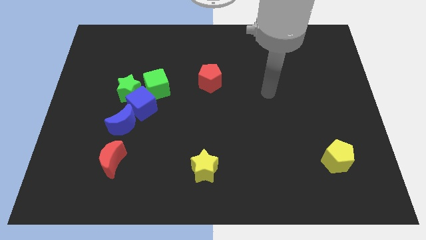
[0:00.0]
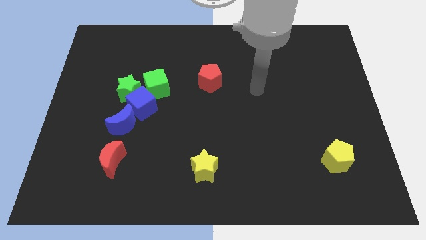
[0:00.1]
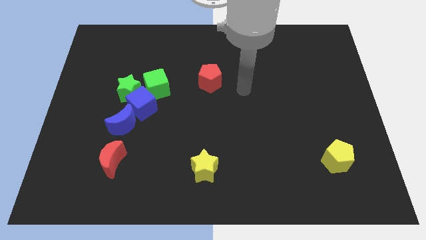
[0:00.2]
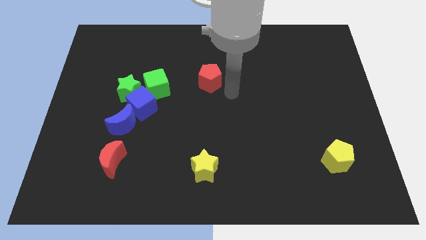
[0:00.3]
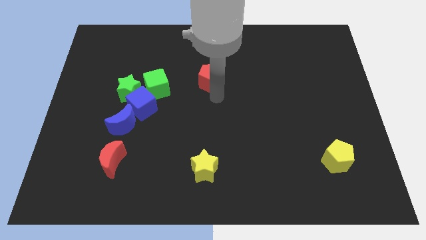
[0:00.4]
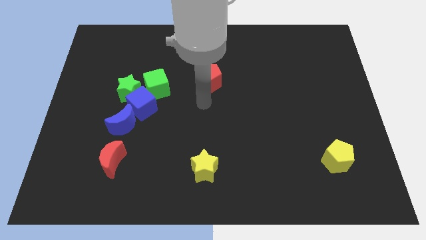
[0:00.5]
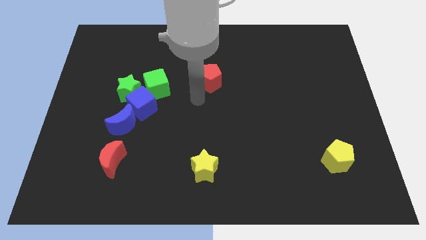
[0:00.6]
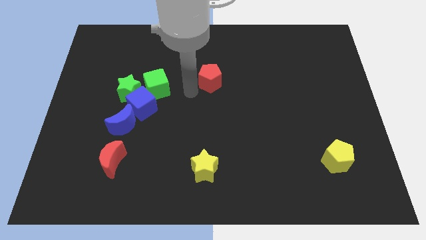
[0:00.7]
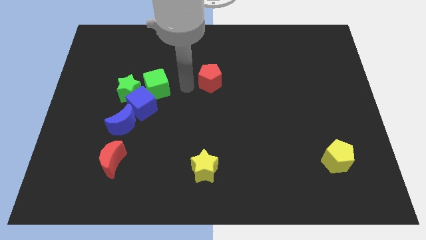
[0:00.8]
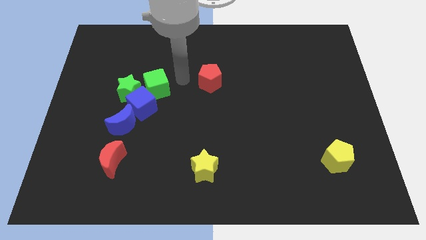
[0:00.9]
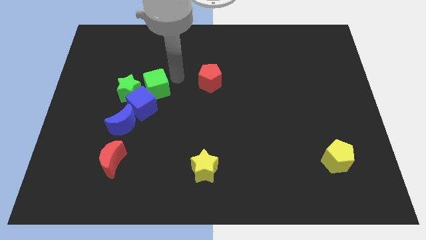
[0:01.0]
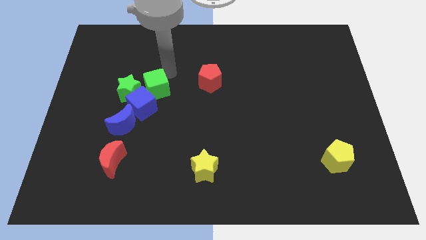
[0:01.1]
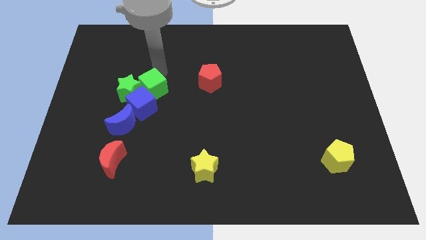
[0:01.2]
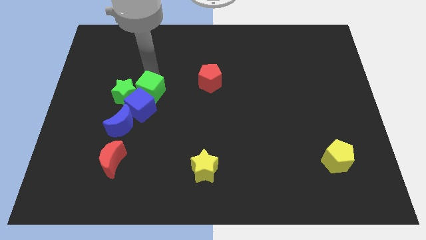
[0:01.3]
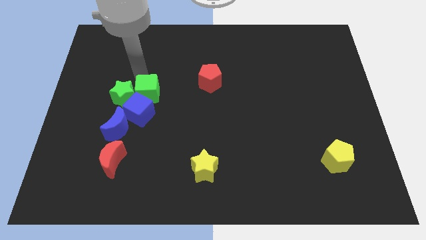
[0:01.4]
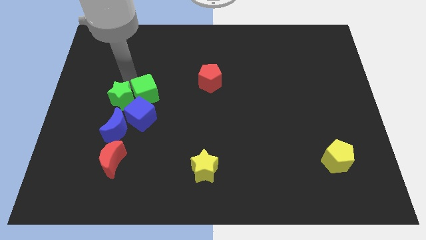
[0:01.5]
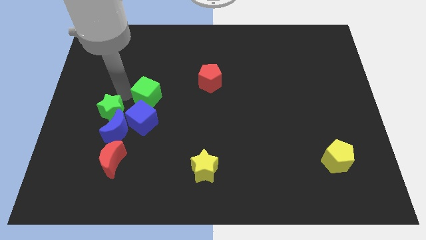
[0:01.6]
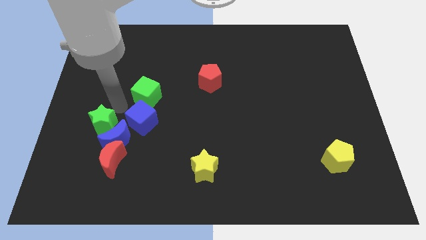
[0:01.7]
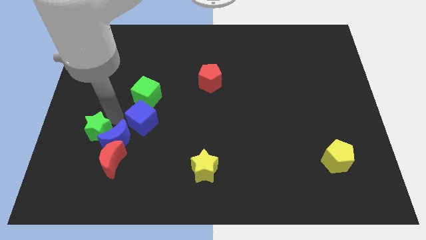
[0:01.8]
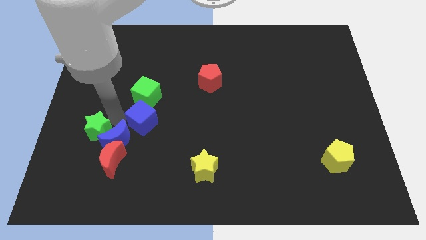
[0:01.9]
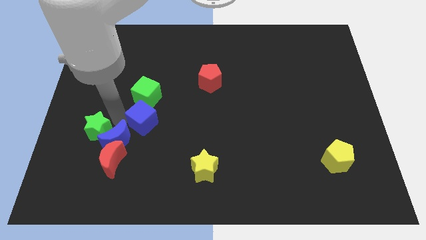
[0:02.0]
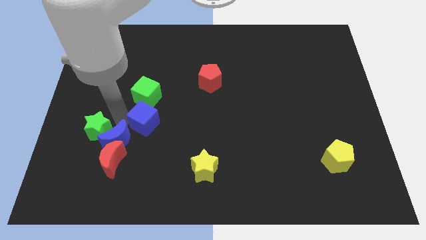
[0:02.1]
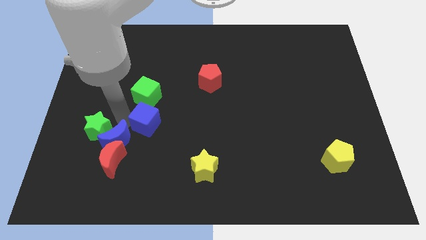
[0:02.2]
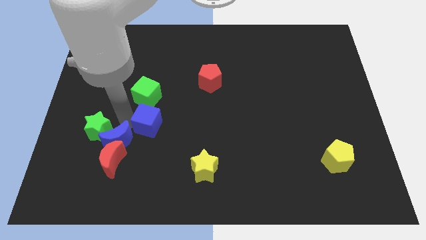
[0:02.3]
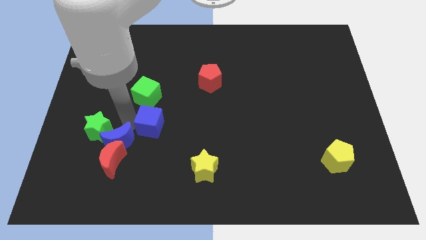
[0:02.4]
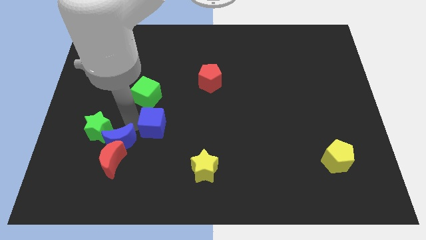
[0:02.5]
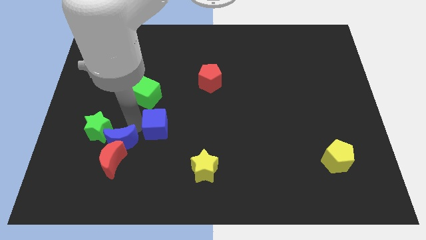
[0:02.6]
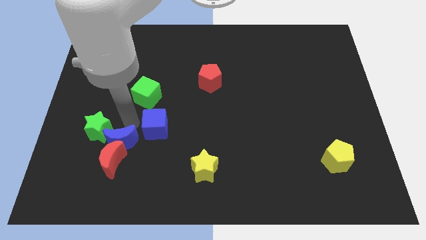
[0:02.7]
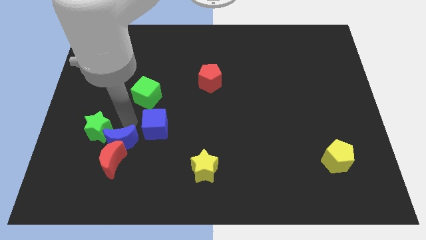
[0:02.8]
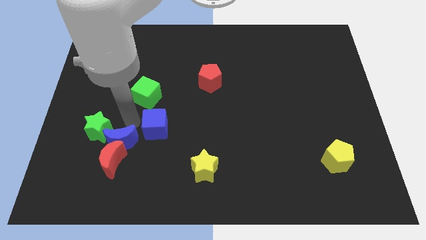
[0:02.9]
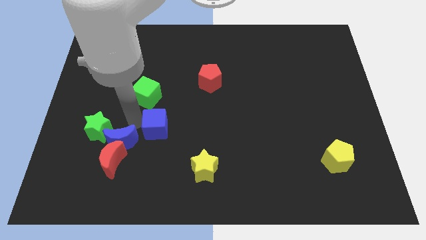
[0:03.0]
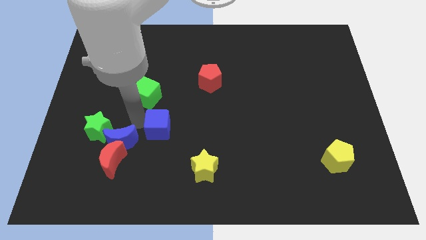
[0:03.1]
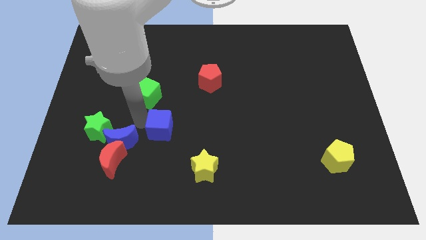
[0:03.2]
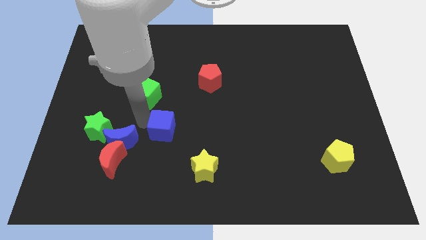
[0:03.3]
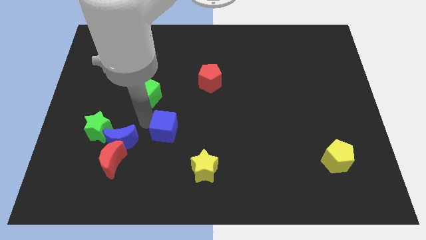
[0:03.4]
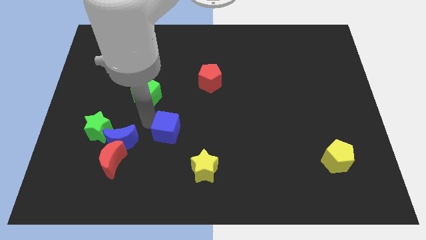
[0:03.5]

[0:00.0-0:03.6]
separate the blue cube from the group of blocks

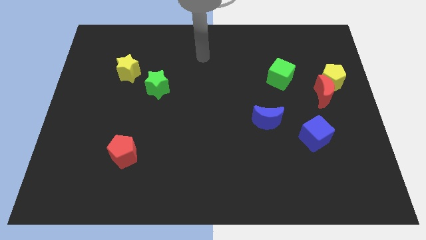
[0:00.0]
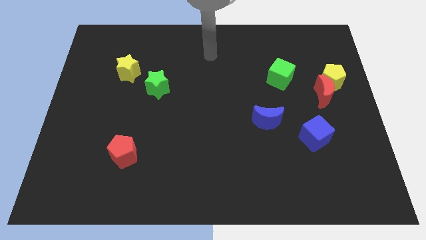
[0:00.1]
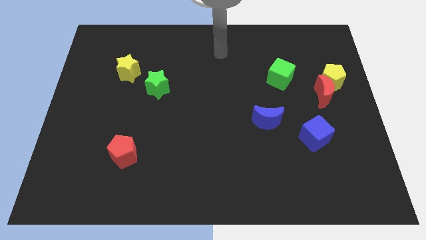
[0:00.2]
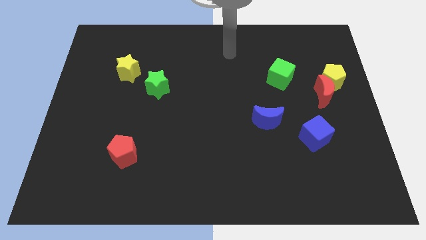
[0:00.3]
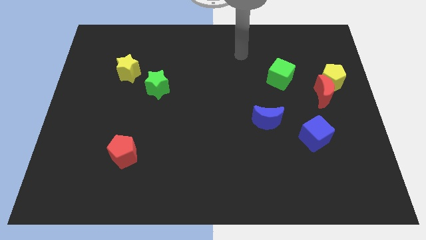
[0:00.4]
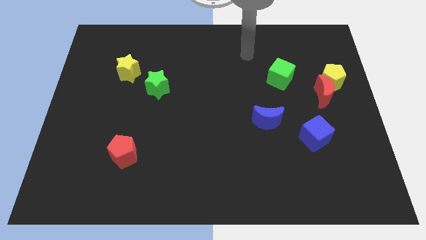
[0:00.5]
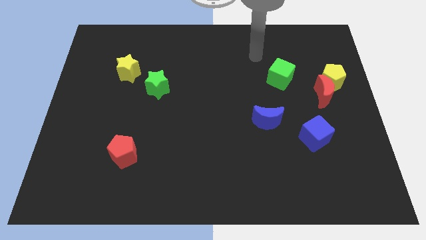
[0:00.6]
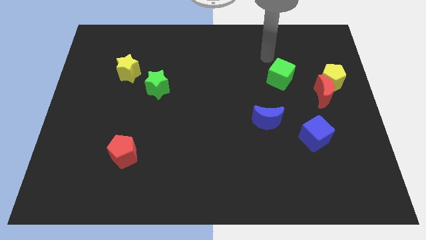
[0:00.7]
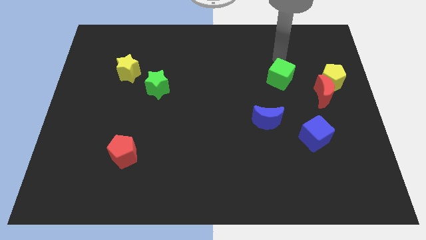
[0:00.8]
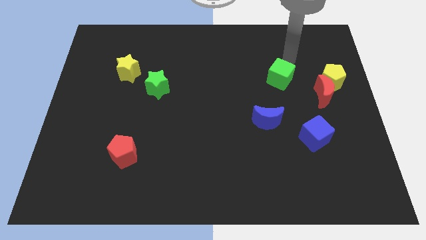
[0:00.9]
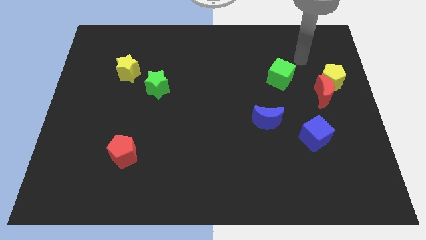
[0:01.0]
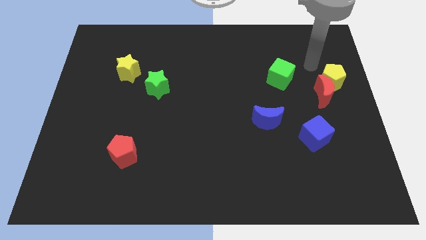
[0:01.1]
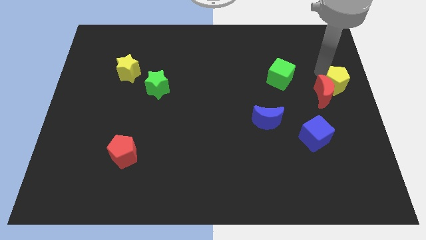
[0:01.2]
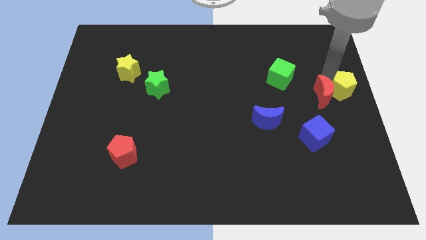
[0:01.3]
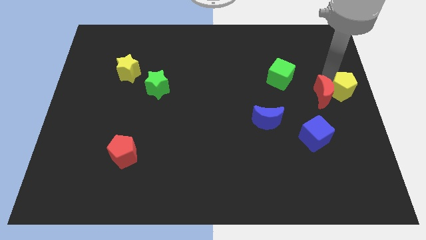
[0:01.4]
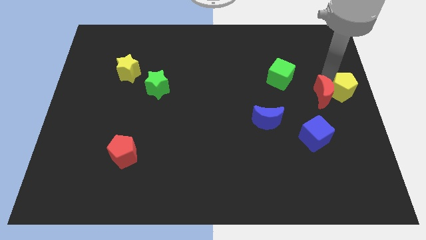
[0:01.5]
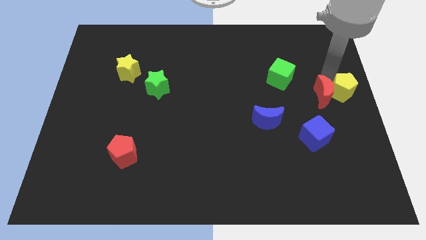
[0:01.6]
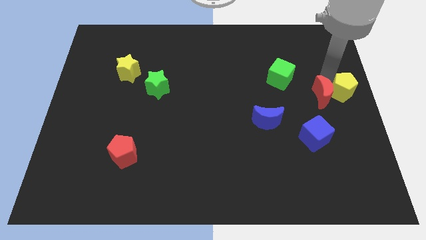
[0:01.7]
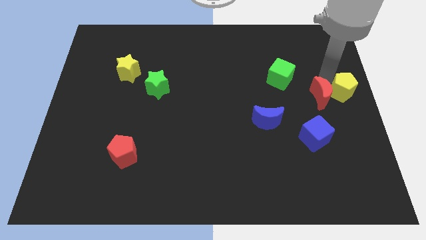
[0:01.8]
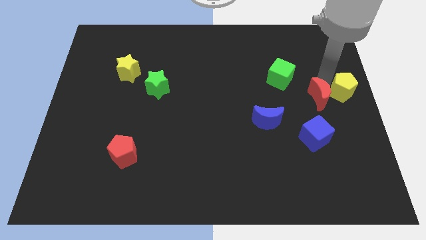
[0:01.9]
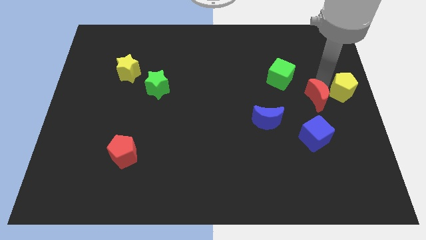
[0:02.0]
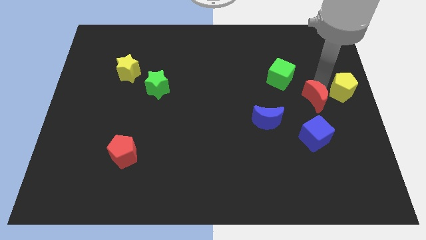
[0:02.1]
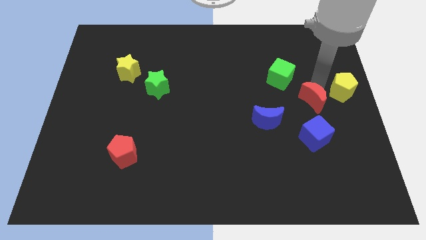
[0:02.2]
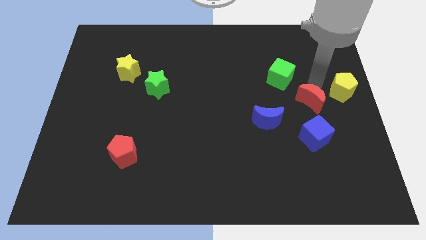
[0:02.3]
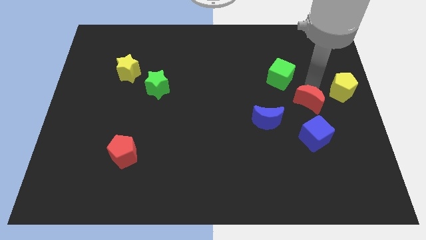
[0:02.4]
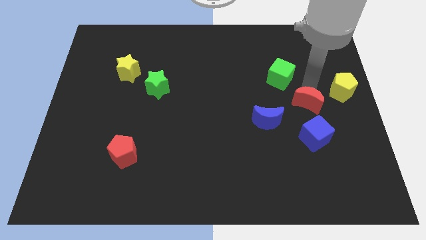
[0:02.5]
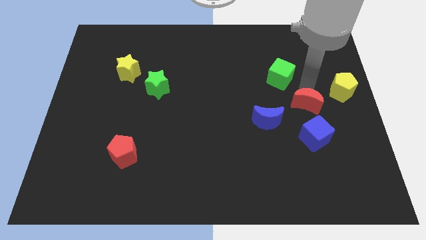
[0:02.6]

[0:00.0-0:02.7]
move the red moon away from the yellow pentagon

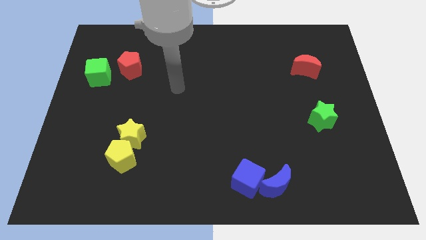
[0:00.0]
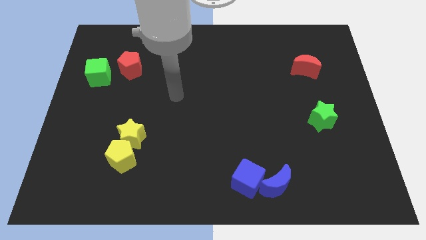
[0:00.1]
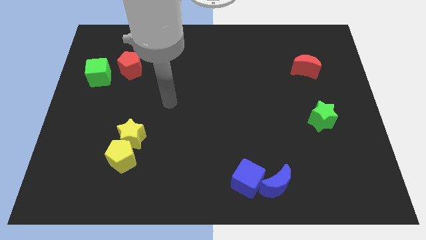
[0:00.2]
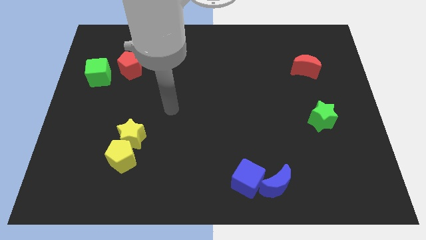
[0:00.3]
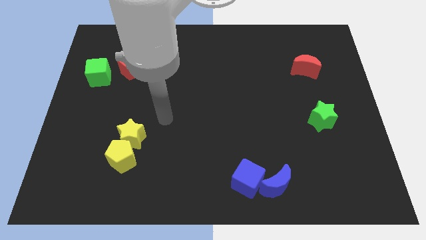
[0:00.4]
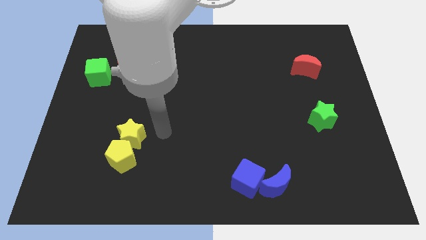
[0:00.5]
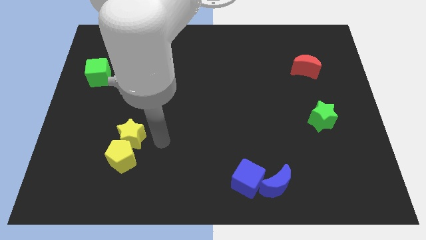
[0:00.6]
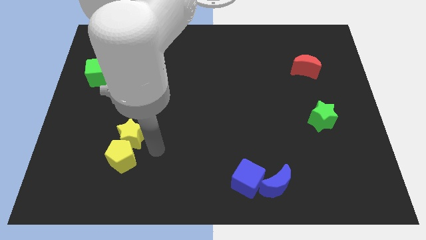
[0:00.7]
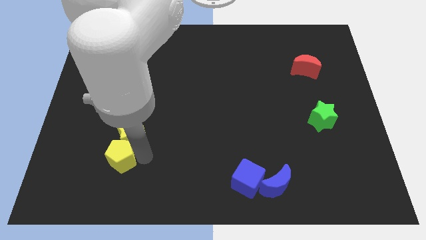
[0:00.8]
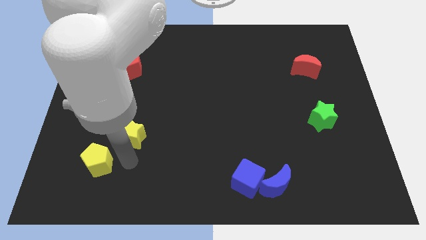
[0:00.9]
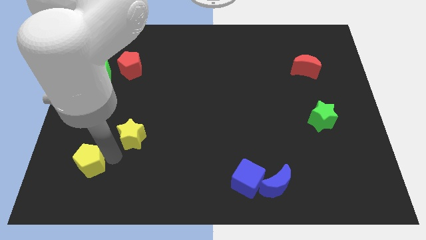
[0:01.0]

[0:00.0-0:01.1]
move the yellow star away from the yellow pentagon

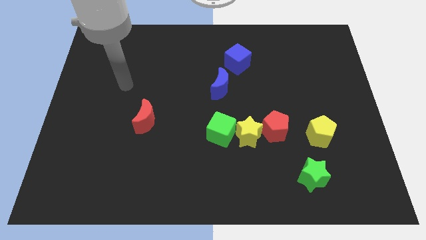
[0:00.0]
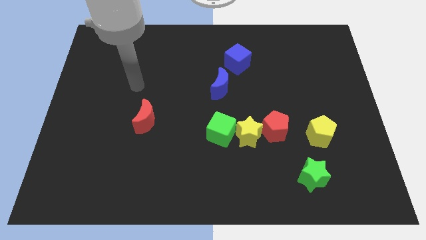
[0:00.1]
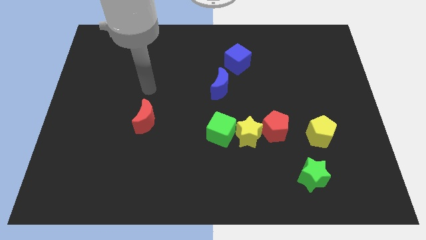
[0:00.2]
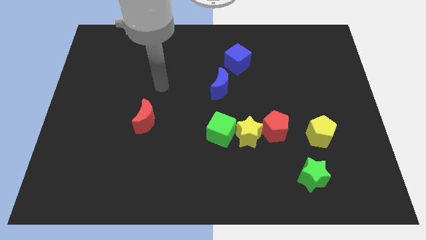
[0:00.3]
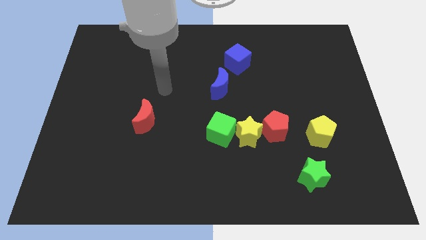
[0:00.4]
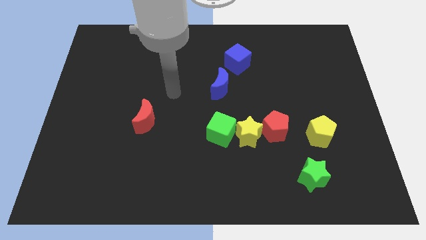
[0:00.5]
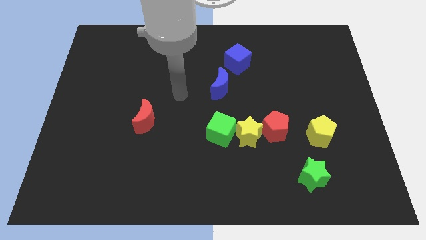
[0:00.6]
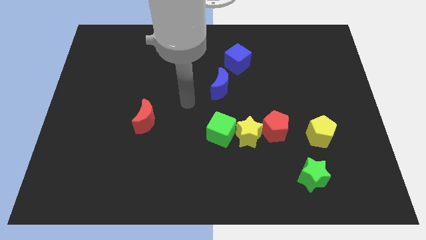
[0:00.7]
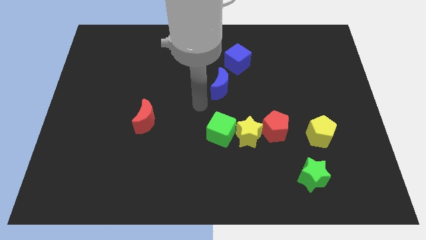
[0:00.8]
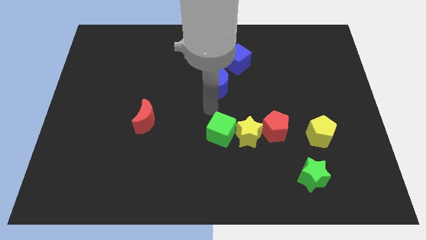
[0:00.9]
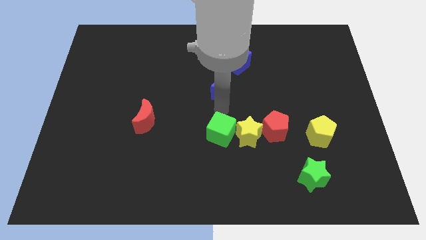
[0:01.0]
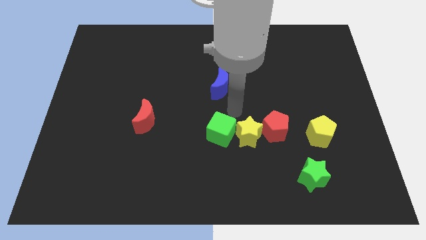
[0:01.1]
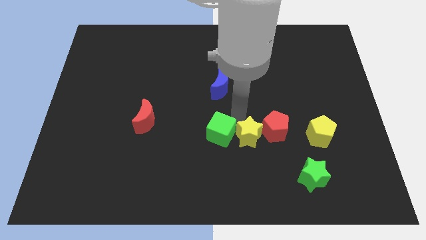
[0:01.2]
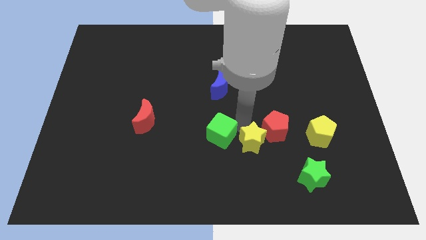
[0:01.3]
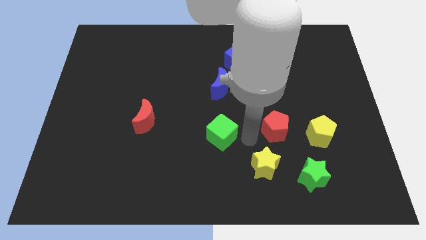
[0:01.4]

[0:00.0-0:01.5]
pull the green cube apart from the yellow star

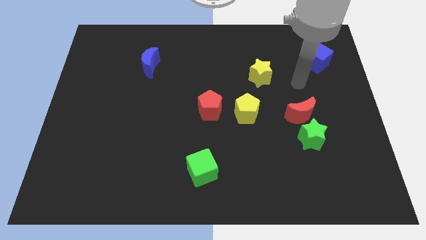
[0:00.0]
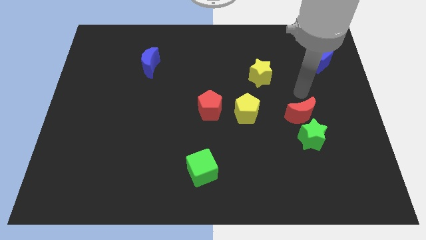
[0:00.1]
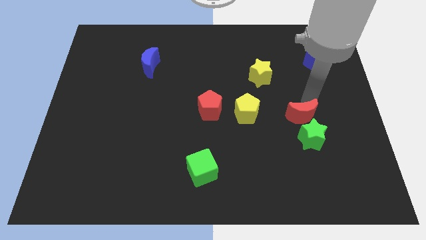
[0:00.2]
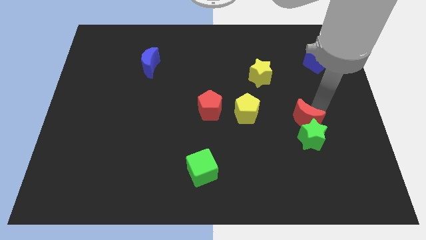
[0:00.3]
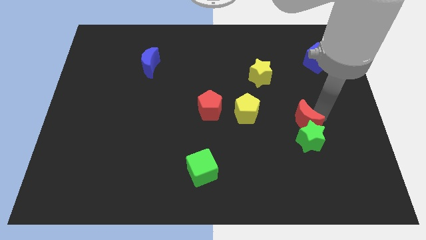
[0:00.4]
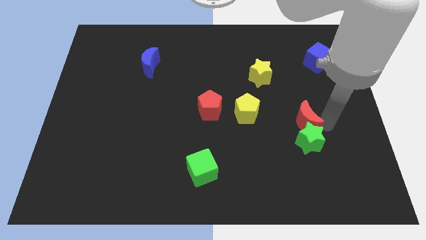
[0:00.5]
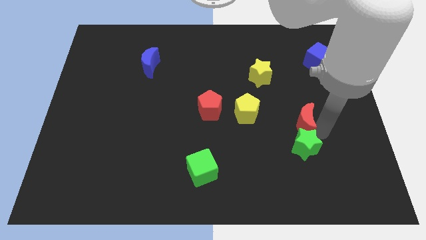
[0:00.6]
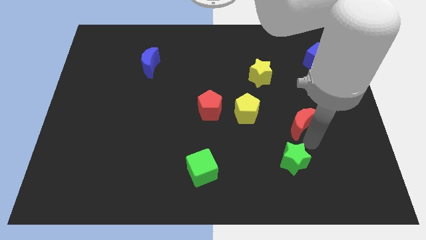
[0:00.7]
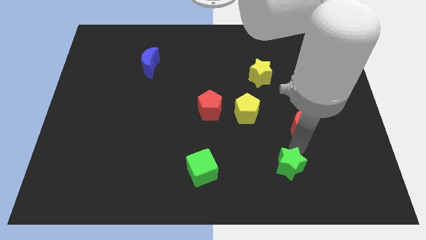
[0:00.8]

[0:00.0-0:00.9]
move the red moon away from the green star
